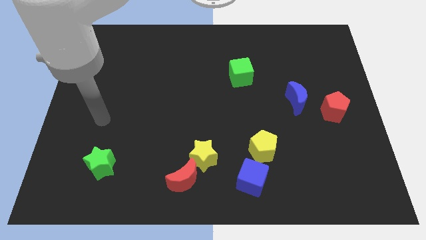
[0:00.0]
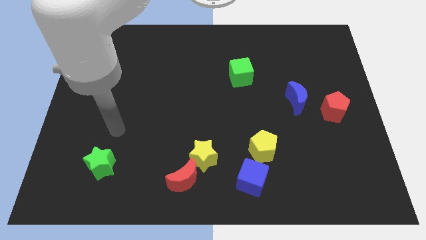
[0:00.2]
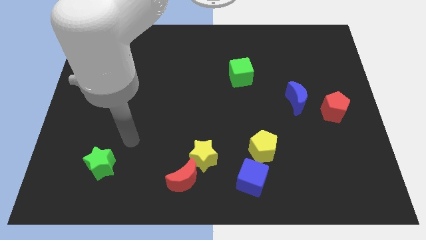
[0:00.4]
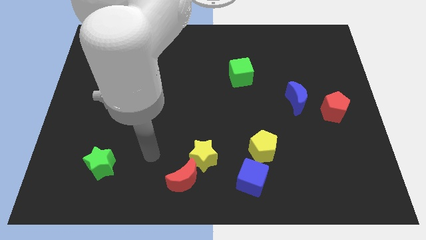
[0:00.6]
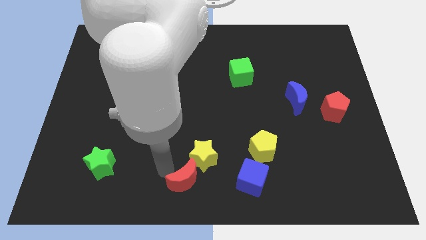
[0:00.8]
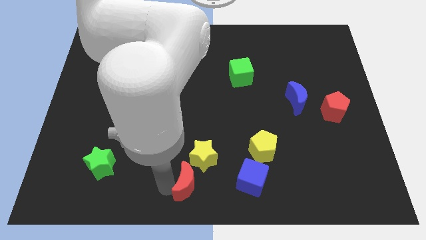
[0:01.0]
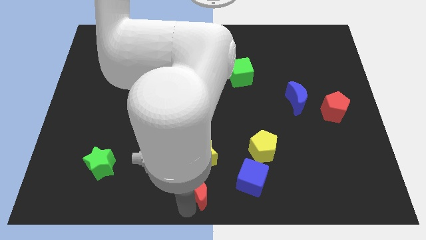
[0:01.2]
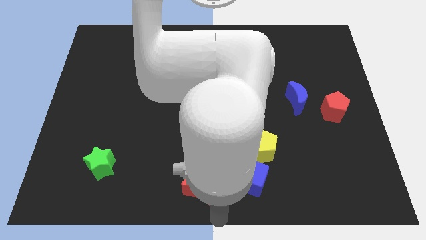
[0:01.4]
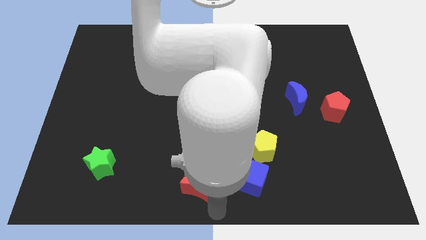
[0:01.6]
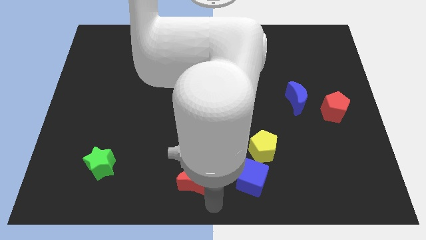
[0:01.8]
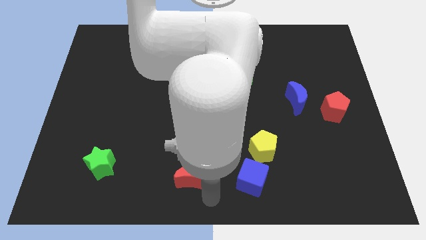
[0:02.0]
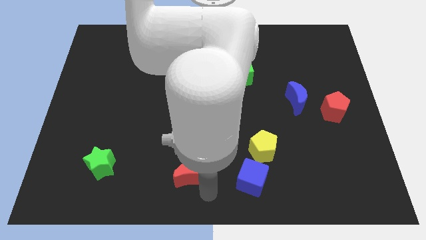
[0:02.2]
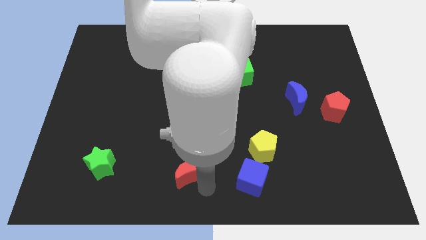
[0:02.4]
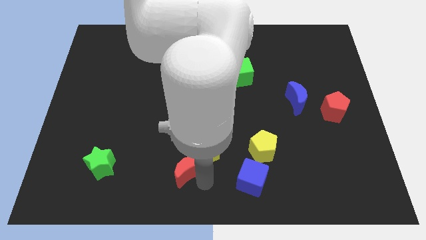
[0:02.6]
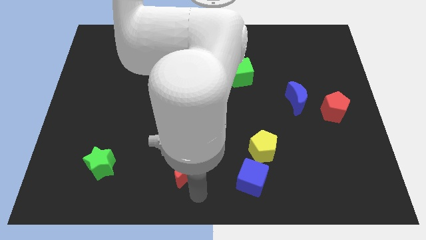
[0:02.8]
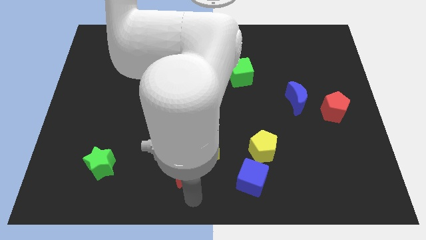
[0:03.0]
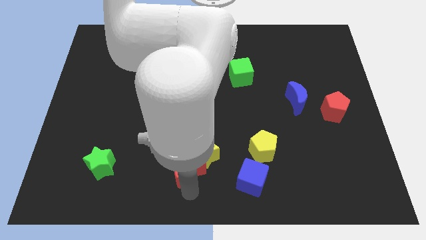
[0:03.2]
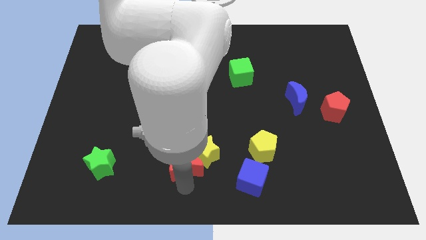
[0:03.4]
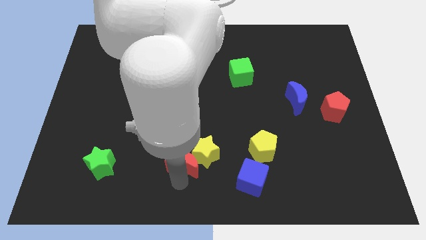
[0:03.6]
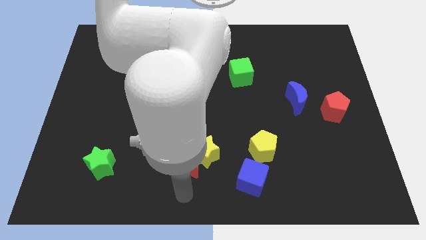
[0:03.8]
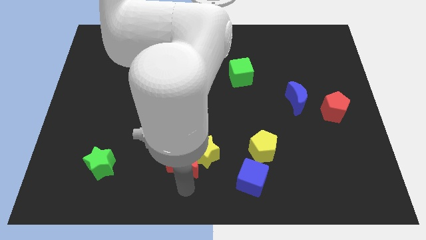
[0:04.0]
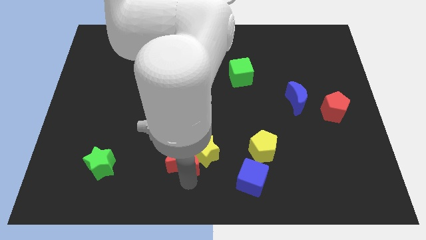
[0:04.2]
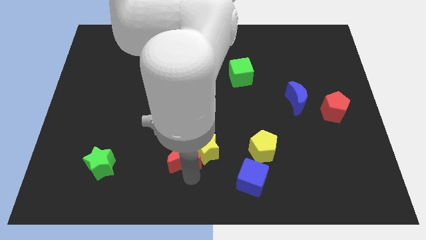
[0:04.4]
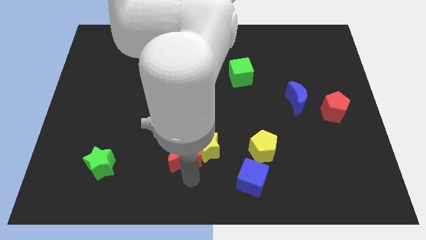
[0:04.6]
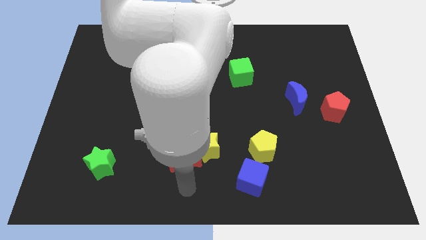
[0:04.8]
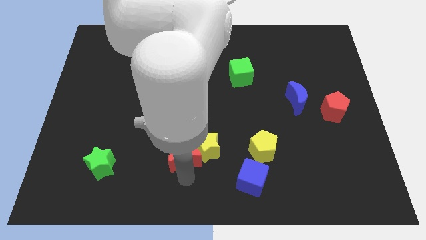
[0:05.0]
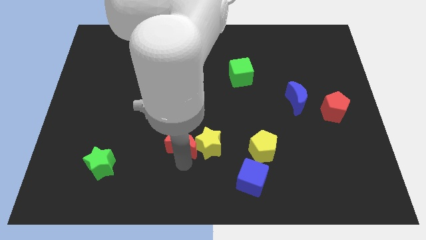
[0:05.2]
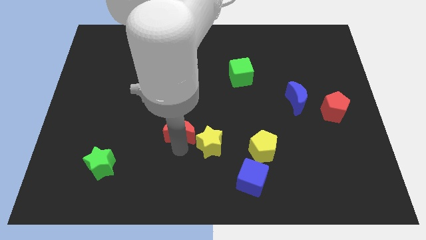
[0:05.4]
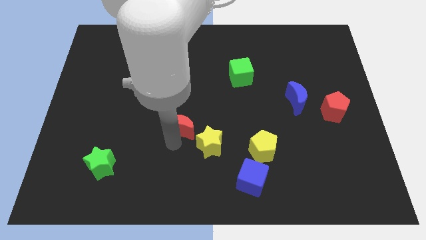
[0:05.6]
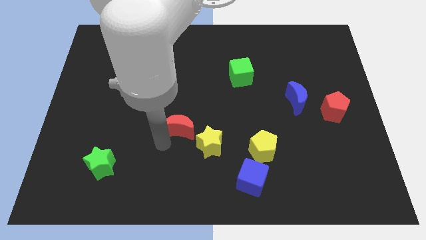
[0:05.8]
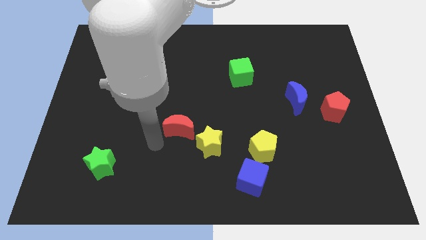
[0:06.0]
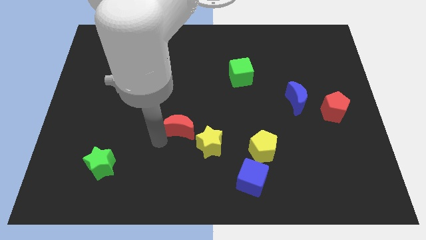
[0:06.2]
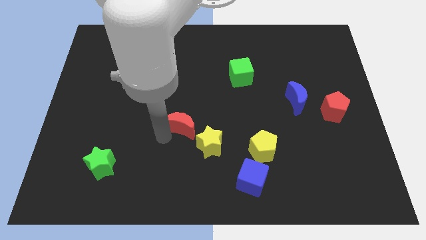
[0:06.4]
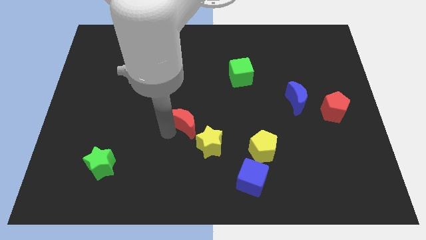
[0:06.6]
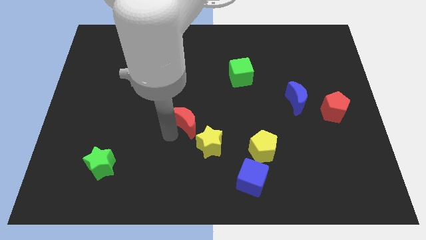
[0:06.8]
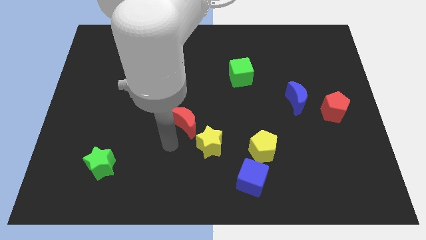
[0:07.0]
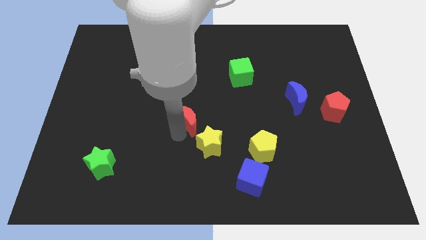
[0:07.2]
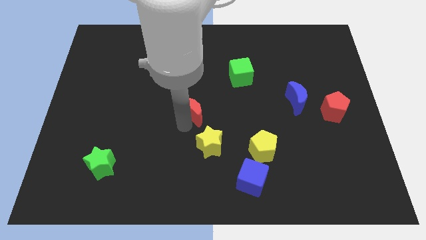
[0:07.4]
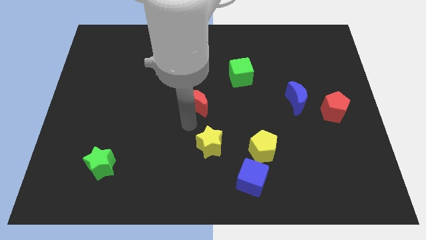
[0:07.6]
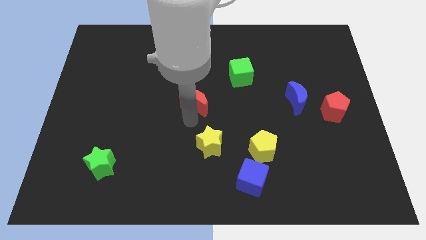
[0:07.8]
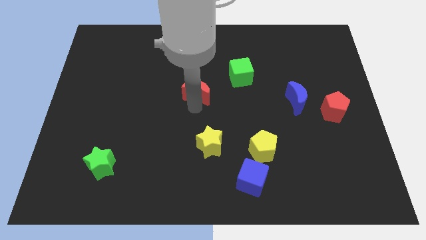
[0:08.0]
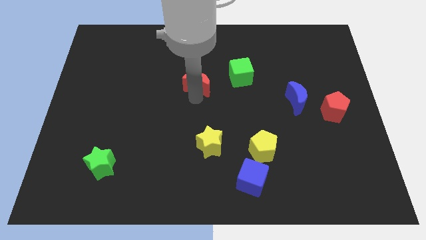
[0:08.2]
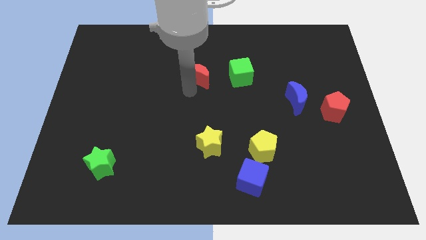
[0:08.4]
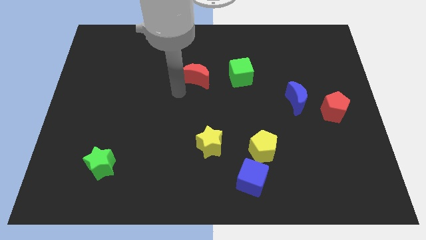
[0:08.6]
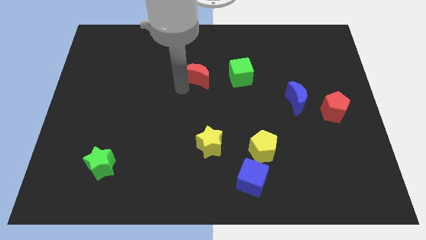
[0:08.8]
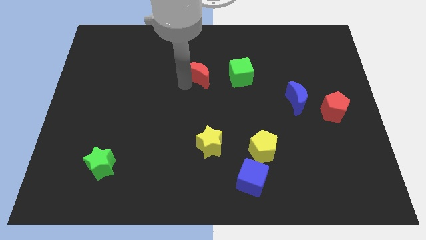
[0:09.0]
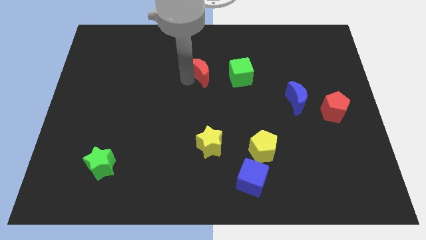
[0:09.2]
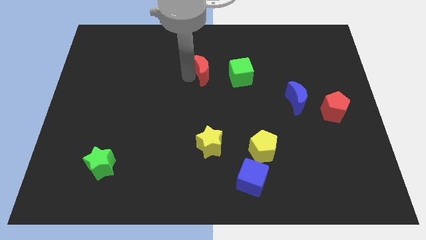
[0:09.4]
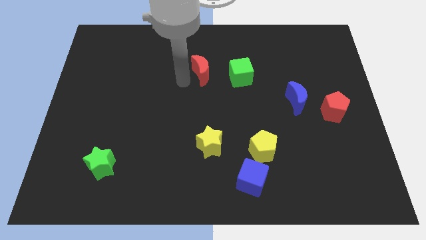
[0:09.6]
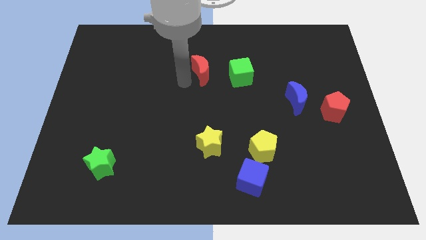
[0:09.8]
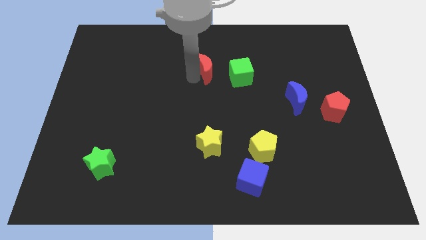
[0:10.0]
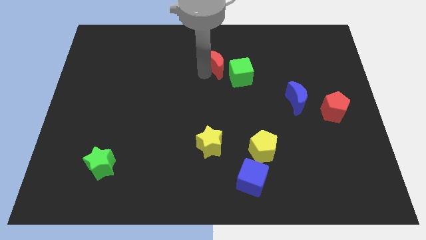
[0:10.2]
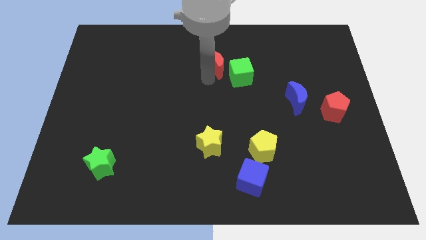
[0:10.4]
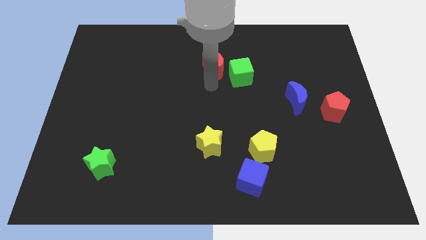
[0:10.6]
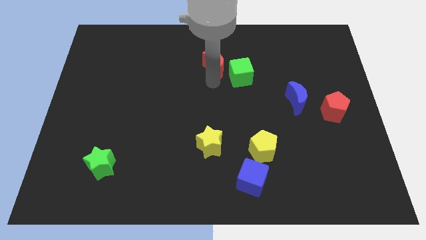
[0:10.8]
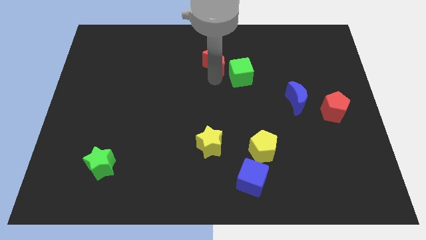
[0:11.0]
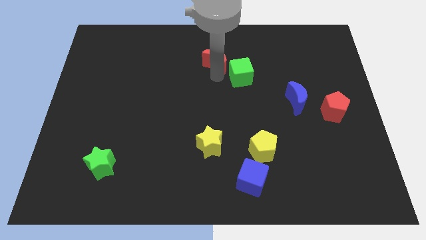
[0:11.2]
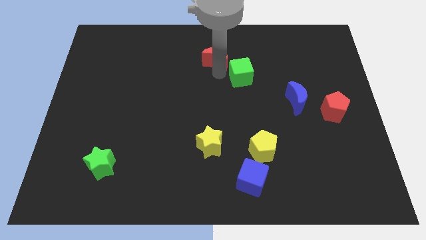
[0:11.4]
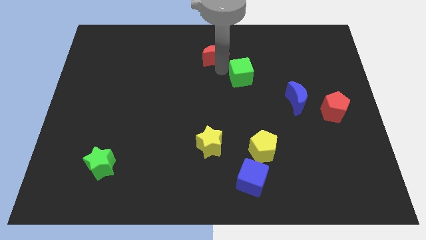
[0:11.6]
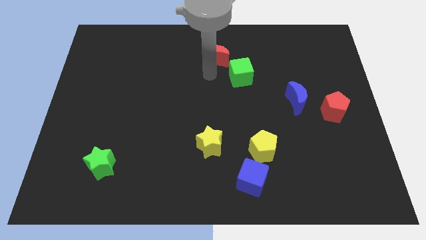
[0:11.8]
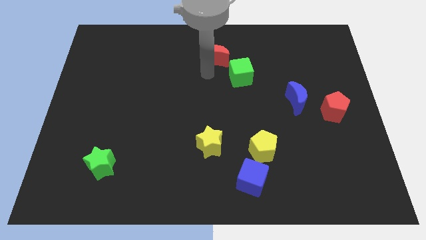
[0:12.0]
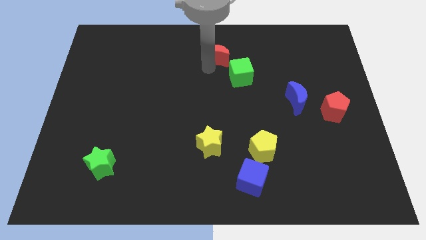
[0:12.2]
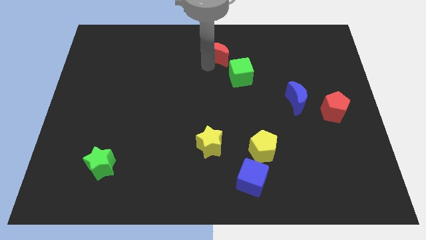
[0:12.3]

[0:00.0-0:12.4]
move the red moon to the top
